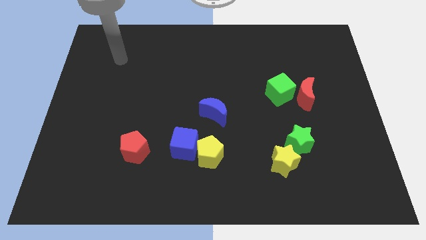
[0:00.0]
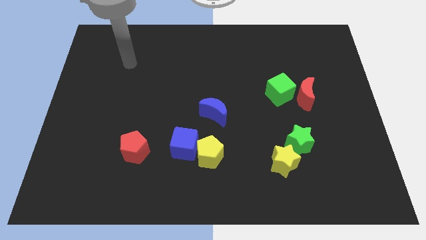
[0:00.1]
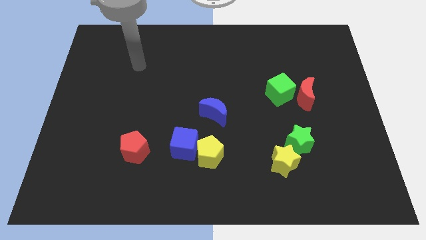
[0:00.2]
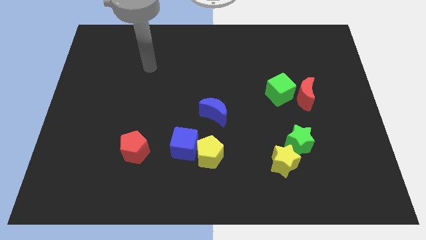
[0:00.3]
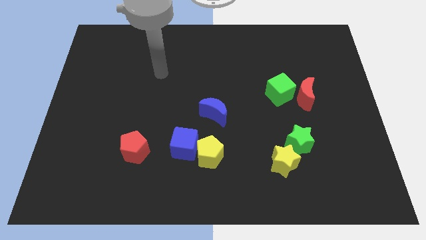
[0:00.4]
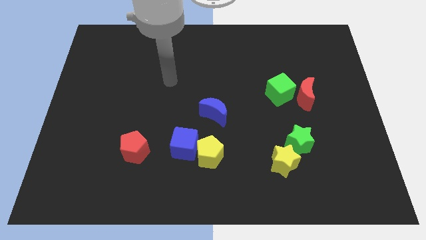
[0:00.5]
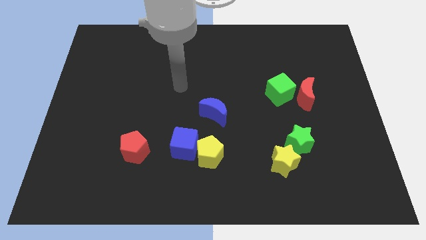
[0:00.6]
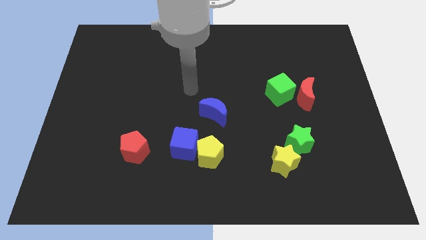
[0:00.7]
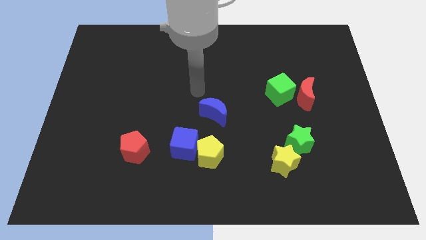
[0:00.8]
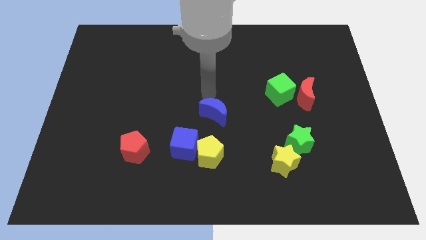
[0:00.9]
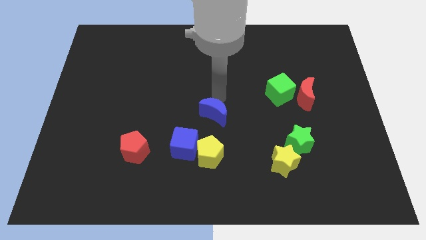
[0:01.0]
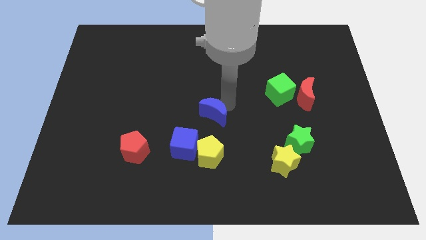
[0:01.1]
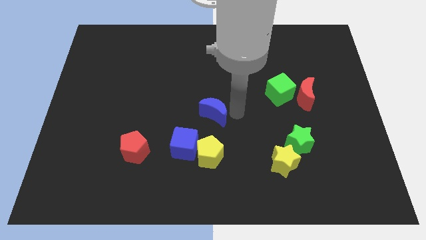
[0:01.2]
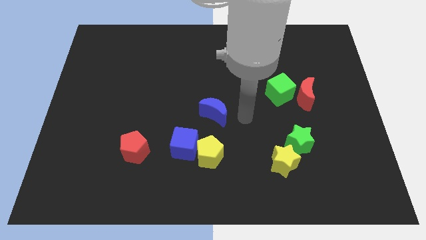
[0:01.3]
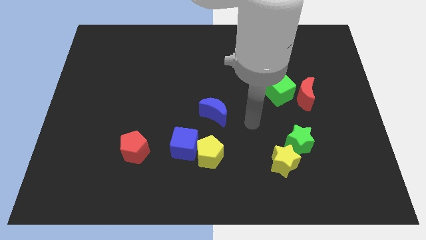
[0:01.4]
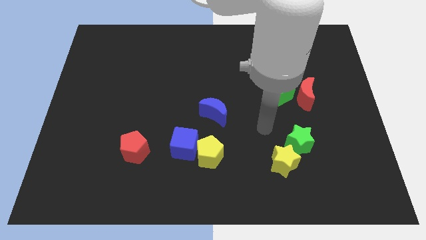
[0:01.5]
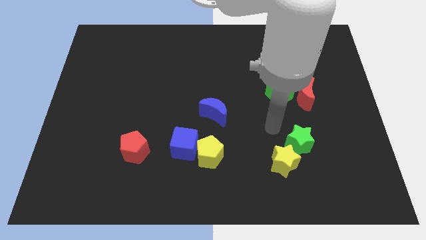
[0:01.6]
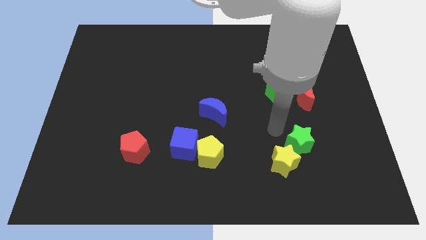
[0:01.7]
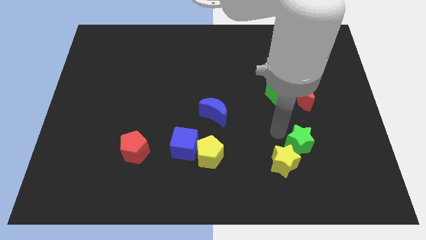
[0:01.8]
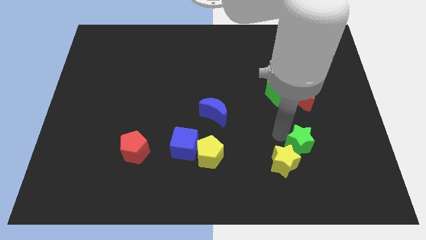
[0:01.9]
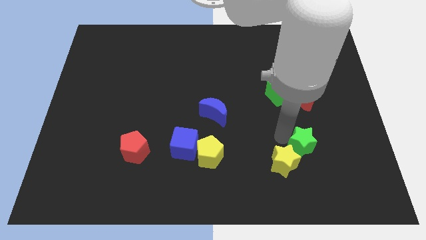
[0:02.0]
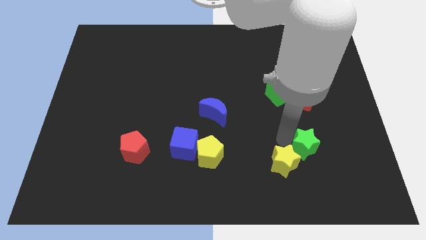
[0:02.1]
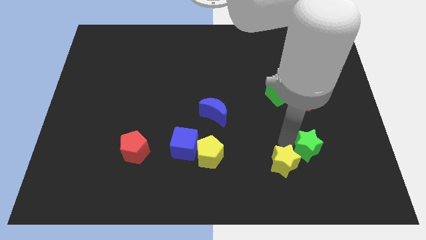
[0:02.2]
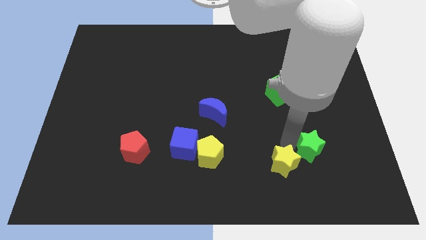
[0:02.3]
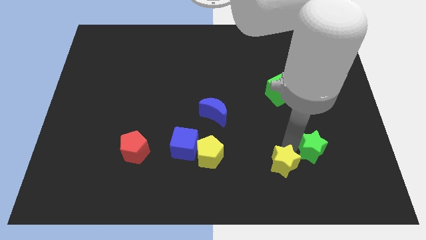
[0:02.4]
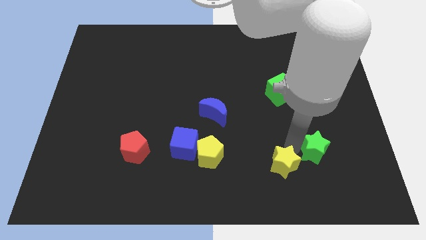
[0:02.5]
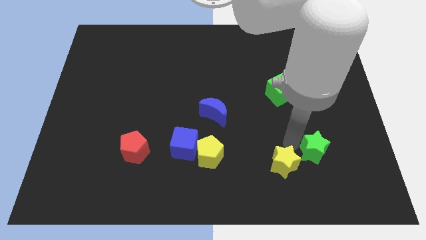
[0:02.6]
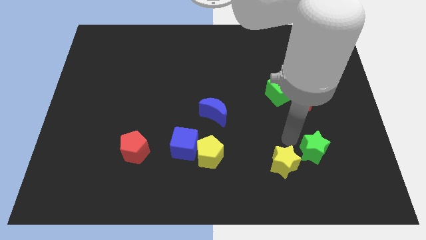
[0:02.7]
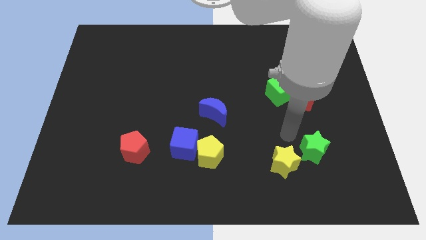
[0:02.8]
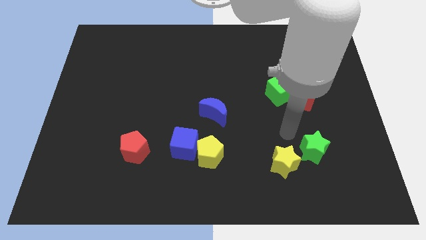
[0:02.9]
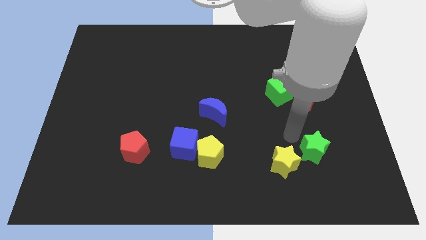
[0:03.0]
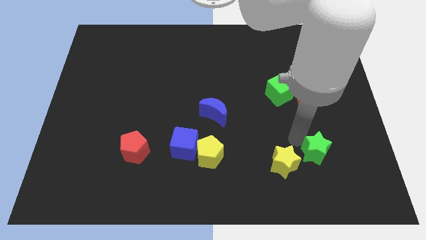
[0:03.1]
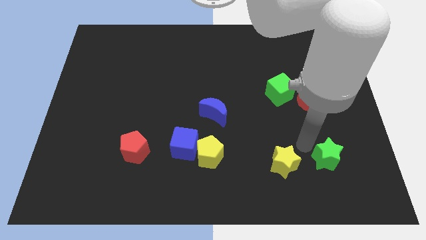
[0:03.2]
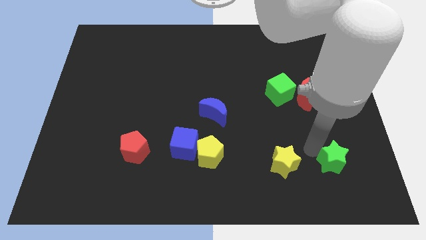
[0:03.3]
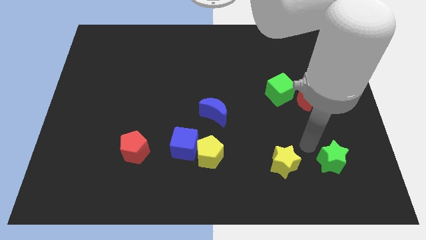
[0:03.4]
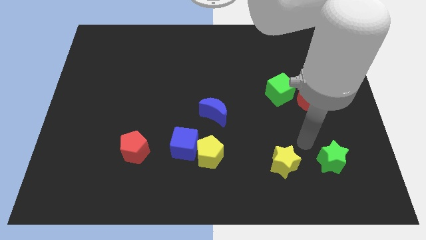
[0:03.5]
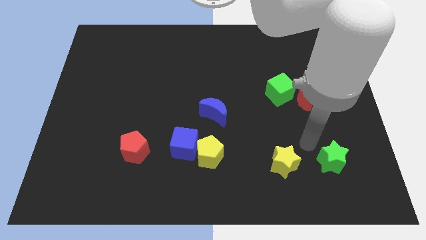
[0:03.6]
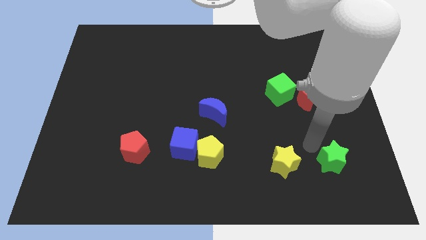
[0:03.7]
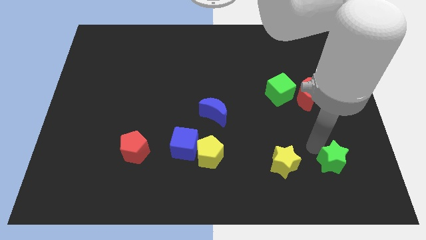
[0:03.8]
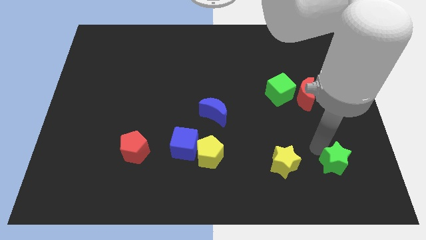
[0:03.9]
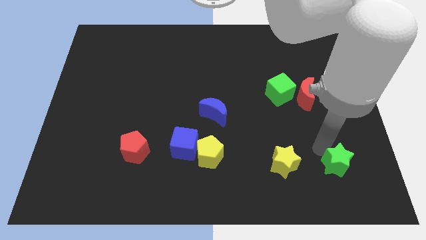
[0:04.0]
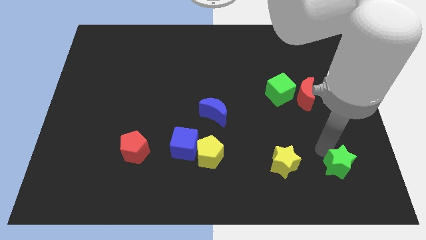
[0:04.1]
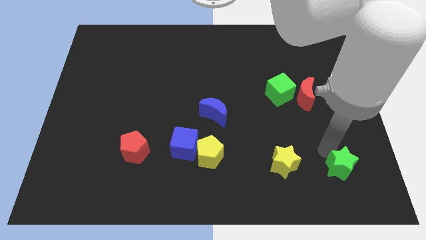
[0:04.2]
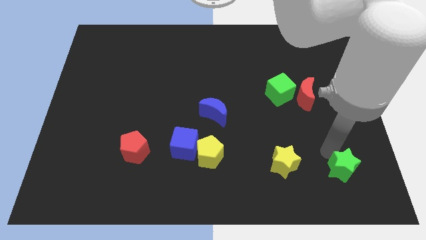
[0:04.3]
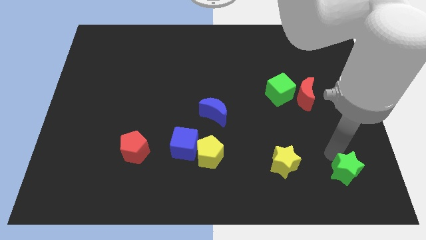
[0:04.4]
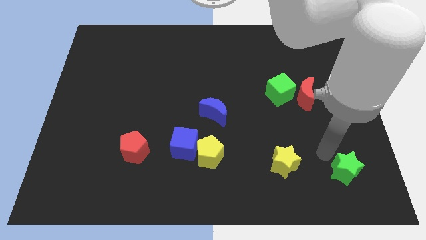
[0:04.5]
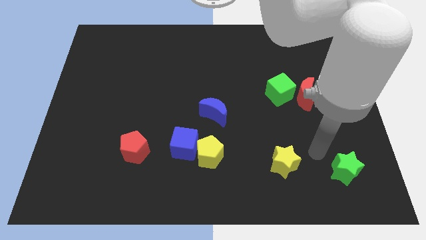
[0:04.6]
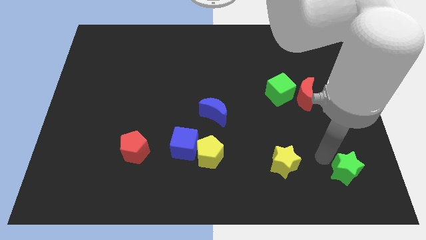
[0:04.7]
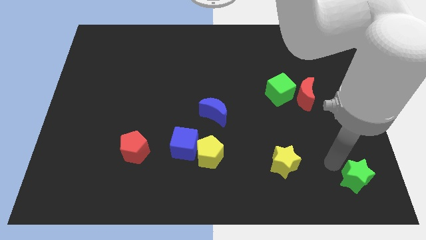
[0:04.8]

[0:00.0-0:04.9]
put the green star to the lower right corner
